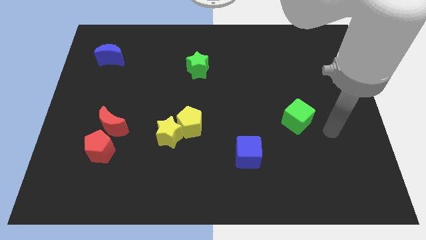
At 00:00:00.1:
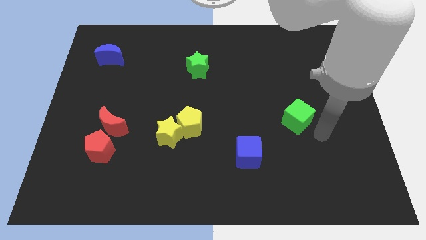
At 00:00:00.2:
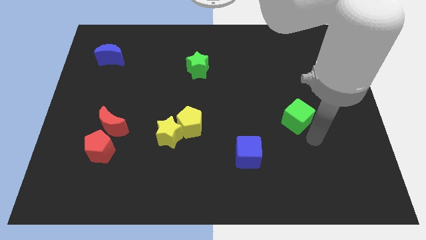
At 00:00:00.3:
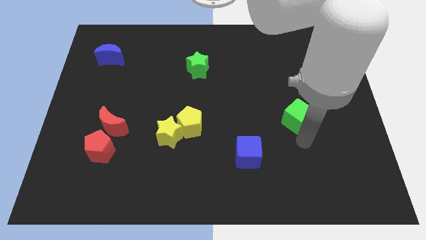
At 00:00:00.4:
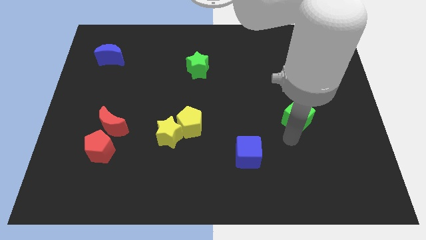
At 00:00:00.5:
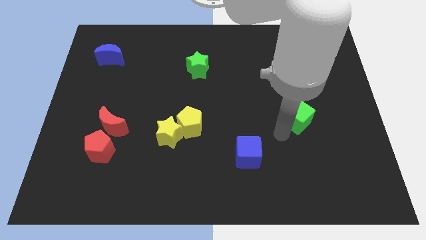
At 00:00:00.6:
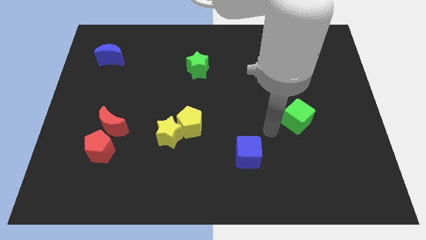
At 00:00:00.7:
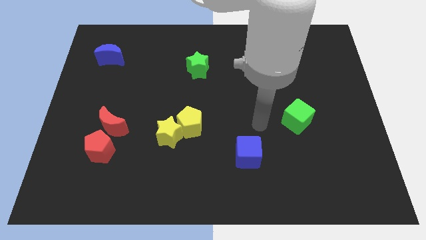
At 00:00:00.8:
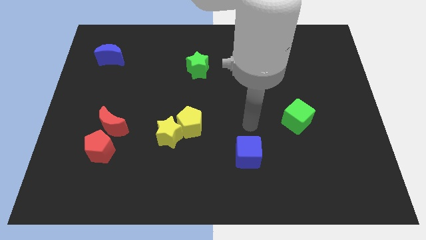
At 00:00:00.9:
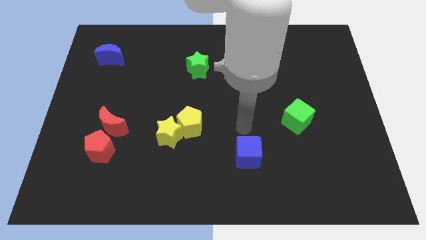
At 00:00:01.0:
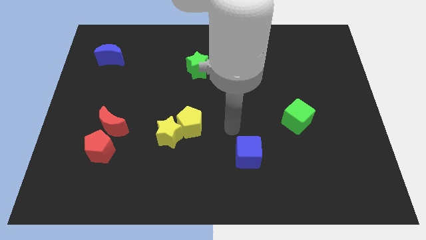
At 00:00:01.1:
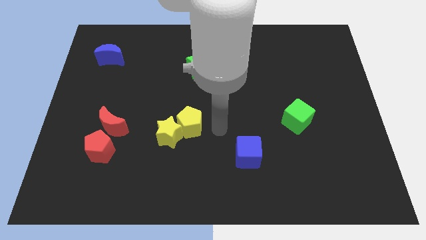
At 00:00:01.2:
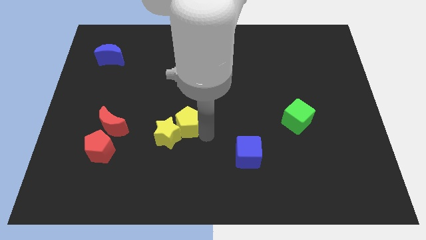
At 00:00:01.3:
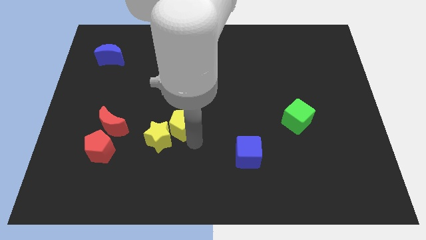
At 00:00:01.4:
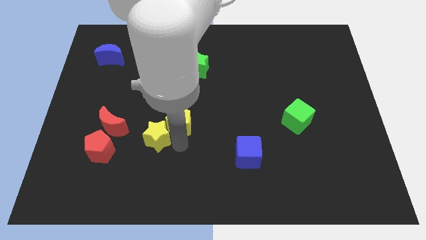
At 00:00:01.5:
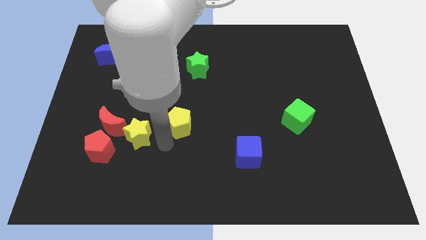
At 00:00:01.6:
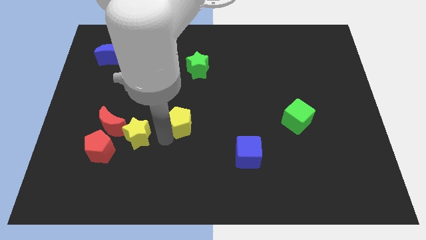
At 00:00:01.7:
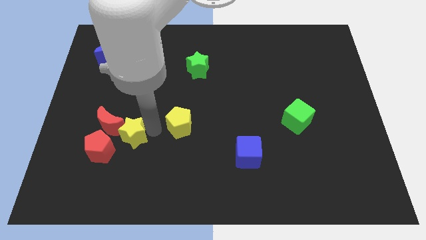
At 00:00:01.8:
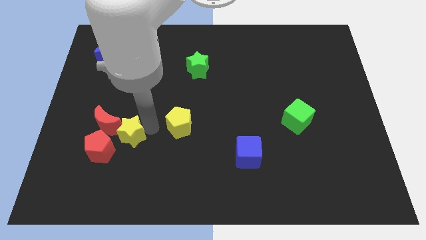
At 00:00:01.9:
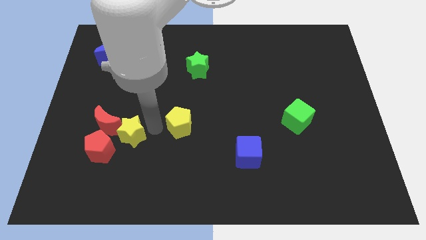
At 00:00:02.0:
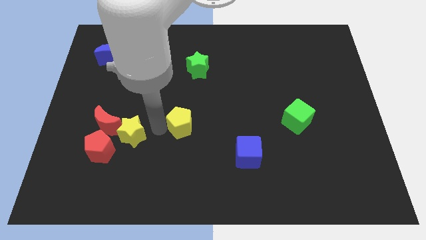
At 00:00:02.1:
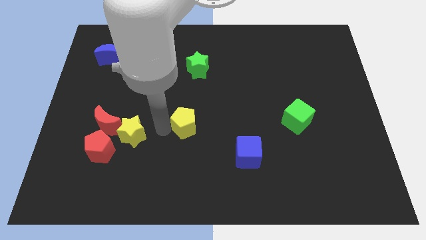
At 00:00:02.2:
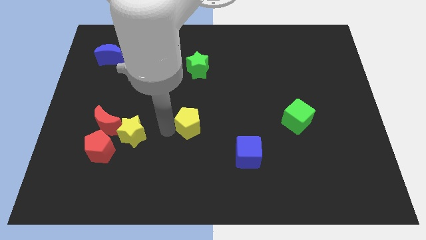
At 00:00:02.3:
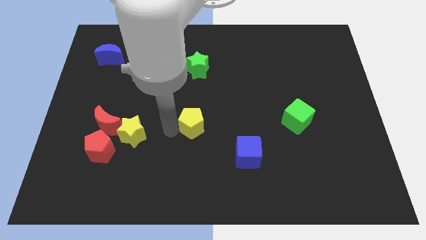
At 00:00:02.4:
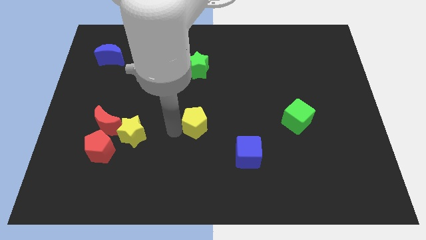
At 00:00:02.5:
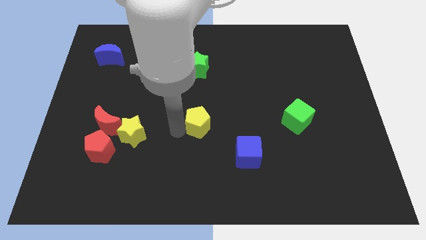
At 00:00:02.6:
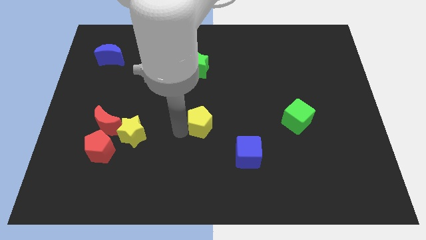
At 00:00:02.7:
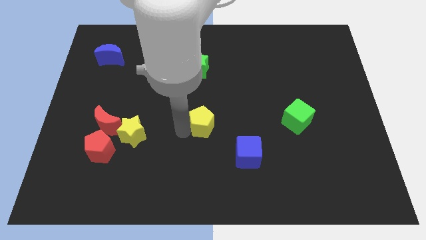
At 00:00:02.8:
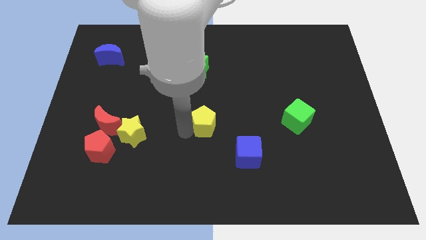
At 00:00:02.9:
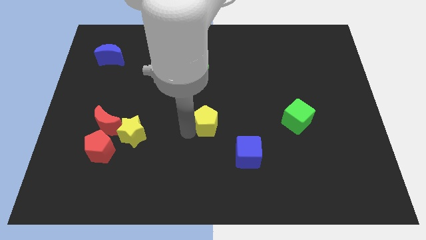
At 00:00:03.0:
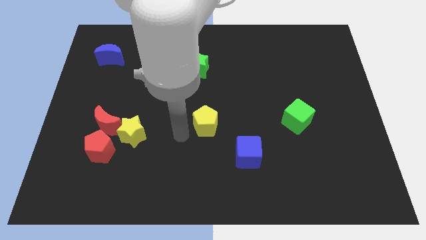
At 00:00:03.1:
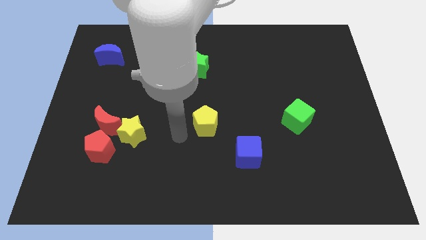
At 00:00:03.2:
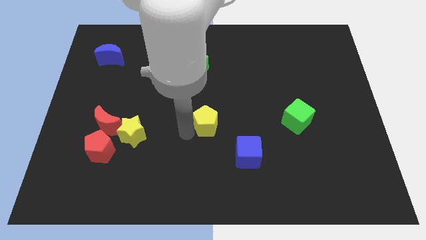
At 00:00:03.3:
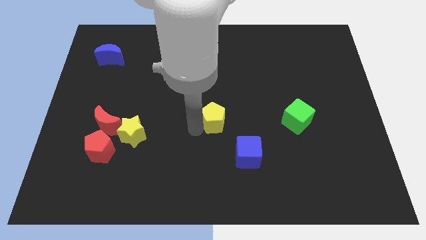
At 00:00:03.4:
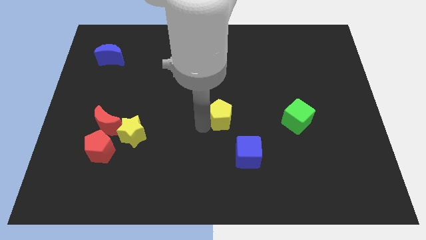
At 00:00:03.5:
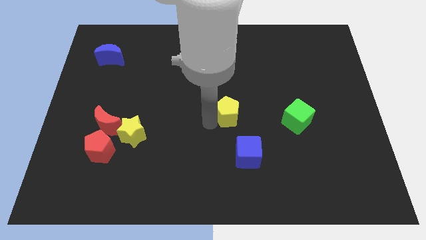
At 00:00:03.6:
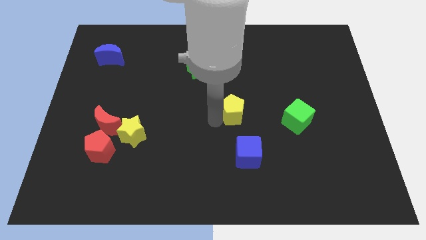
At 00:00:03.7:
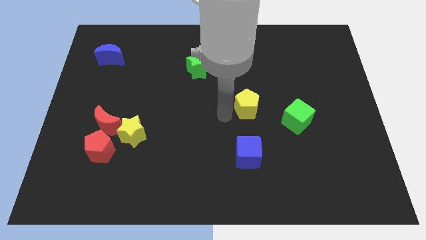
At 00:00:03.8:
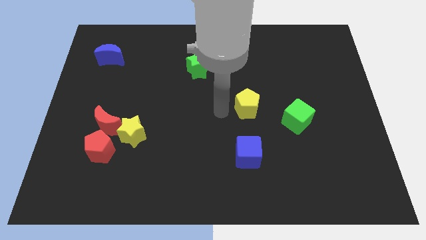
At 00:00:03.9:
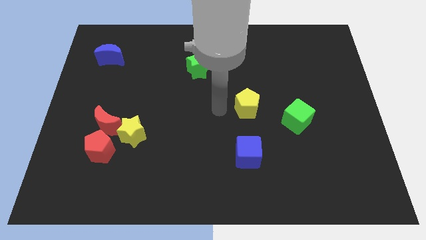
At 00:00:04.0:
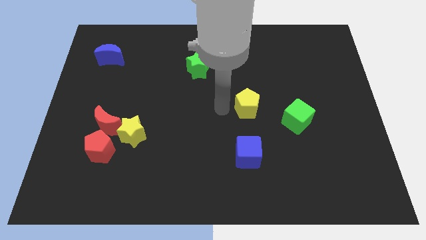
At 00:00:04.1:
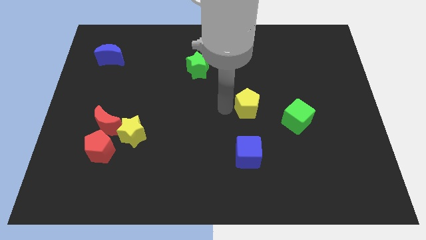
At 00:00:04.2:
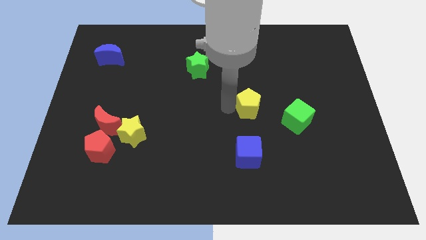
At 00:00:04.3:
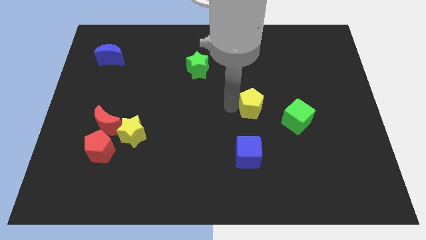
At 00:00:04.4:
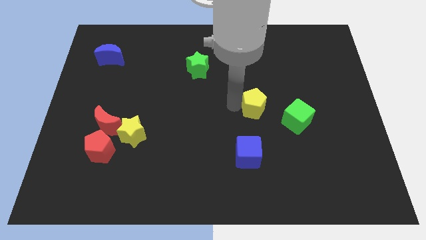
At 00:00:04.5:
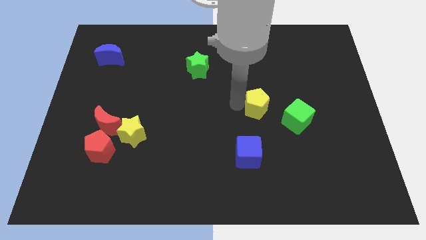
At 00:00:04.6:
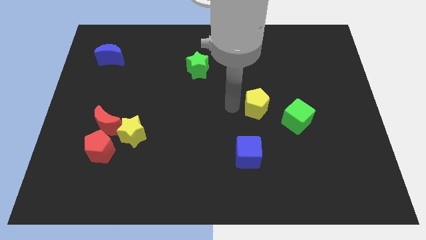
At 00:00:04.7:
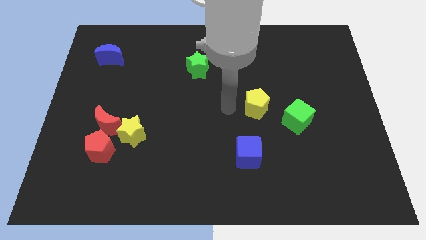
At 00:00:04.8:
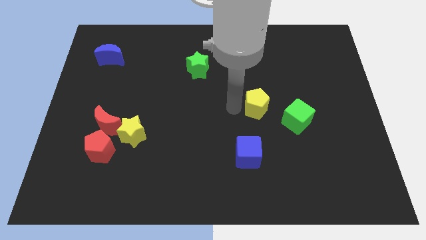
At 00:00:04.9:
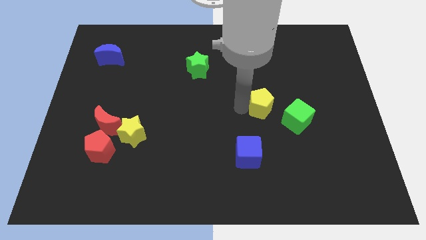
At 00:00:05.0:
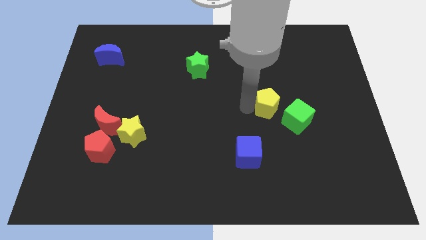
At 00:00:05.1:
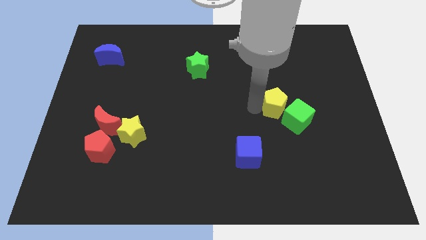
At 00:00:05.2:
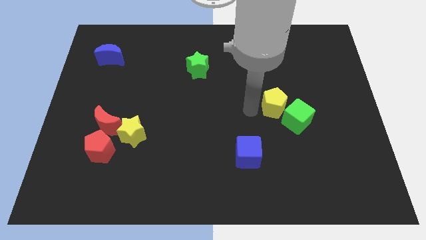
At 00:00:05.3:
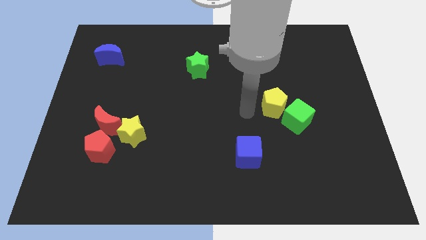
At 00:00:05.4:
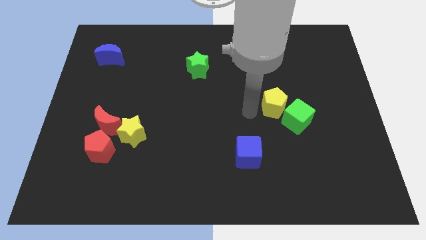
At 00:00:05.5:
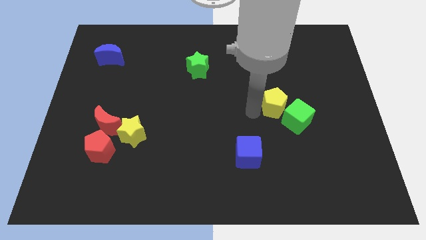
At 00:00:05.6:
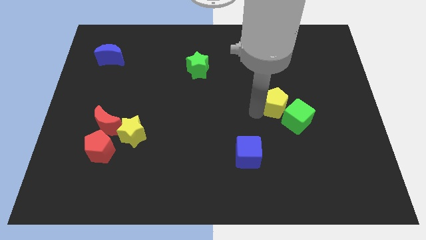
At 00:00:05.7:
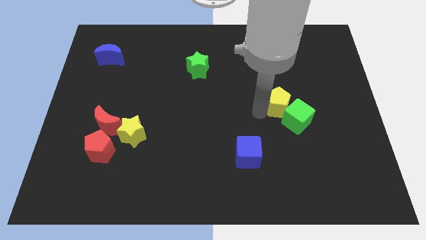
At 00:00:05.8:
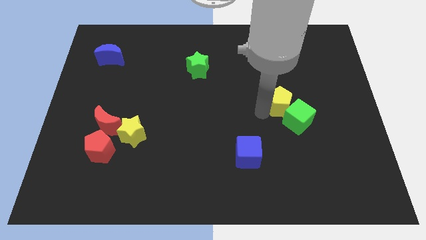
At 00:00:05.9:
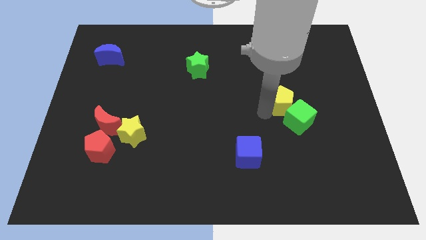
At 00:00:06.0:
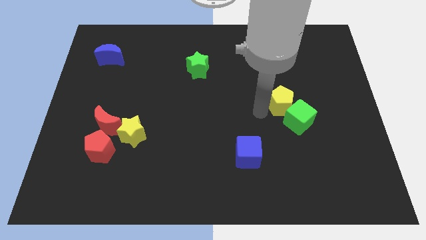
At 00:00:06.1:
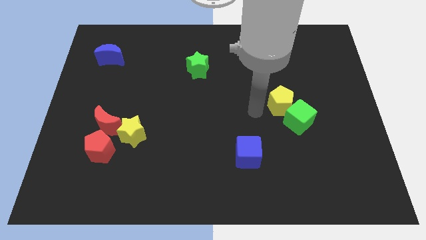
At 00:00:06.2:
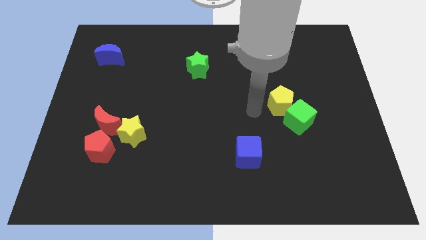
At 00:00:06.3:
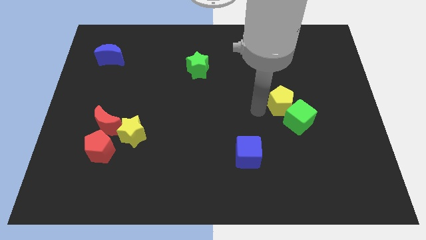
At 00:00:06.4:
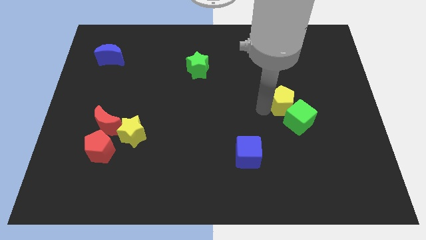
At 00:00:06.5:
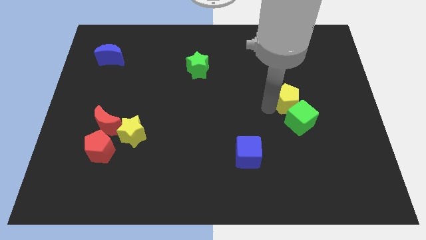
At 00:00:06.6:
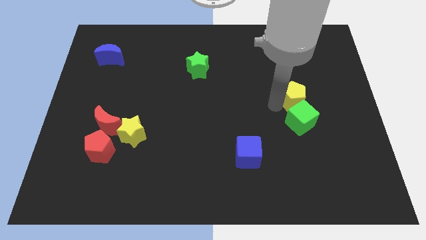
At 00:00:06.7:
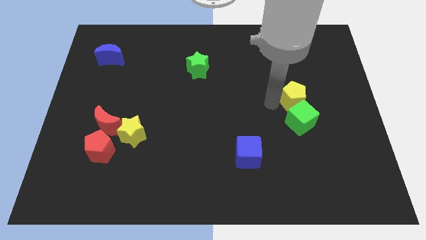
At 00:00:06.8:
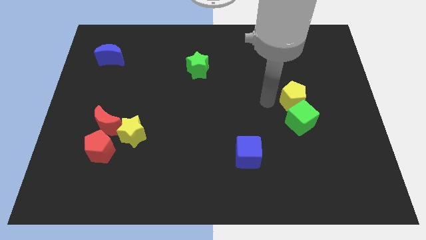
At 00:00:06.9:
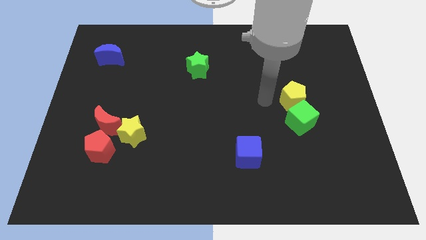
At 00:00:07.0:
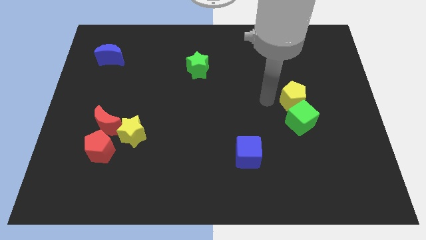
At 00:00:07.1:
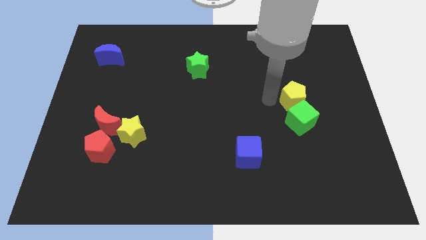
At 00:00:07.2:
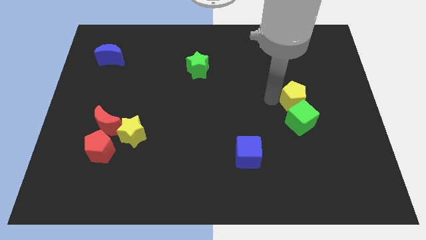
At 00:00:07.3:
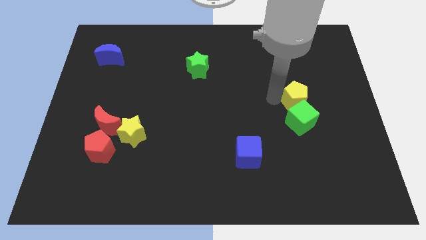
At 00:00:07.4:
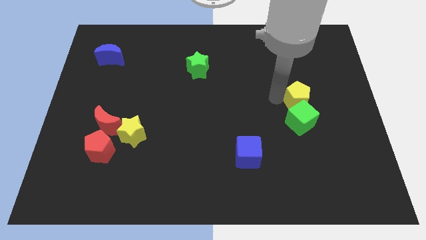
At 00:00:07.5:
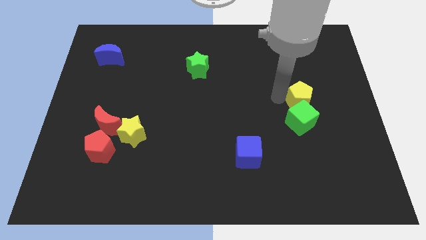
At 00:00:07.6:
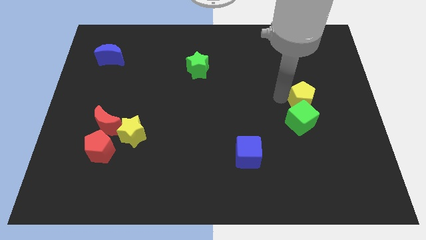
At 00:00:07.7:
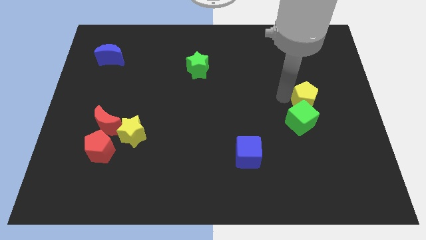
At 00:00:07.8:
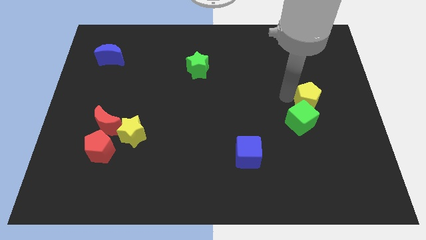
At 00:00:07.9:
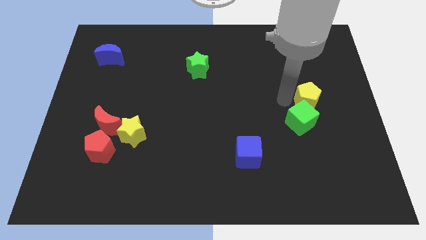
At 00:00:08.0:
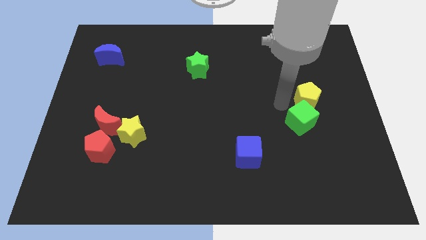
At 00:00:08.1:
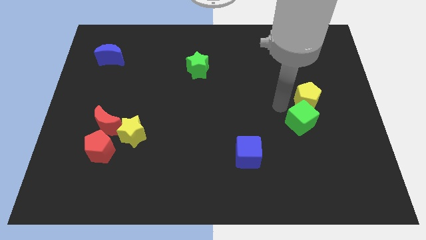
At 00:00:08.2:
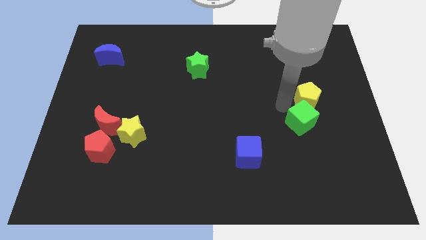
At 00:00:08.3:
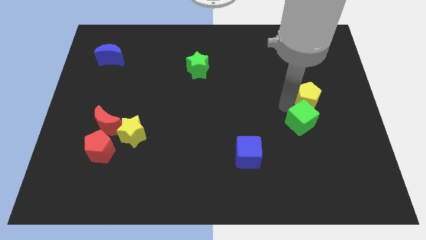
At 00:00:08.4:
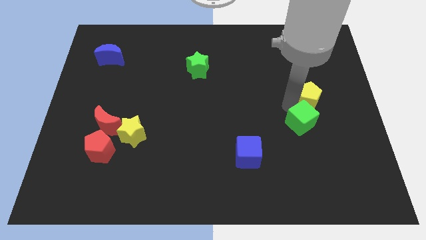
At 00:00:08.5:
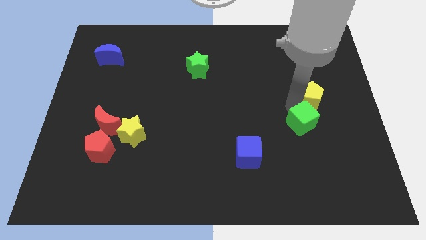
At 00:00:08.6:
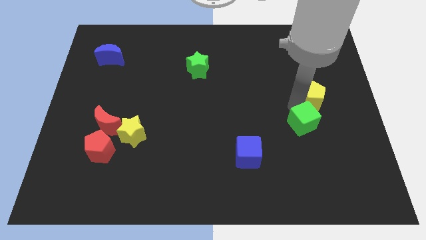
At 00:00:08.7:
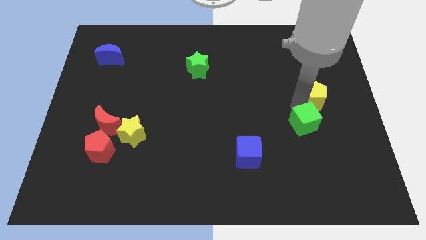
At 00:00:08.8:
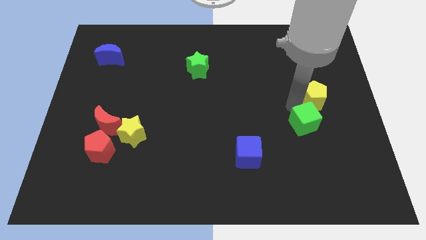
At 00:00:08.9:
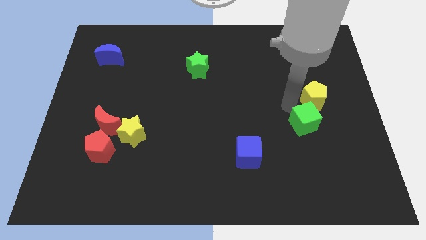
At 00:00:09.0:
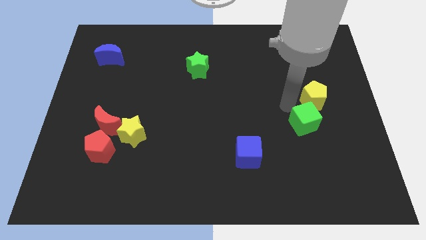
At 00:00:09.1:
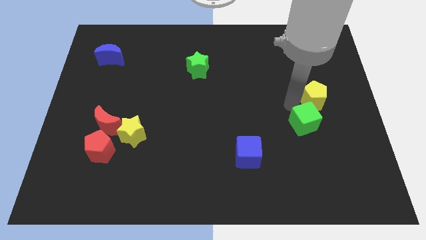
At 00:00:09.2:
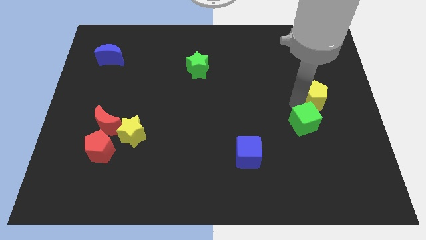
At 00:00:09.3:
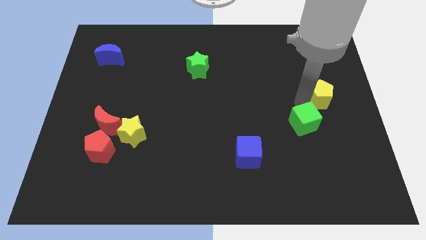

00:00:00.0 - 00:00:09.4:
push the yellow pentagon to the right side
